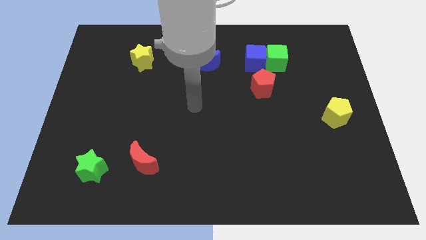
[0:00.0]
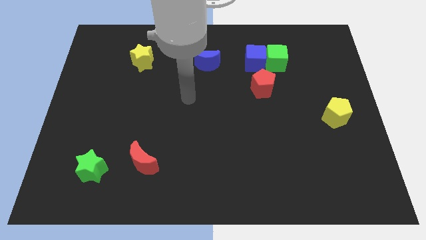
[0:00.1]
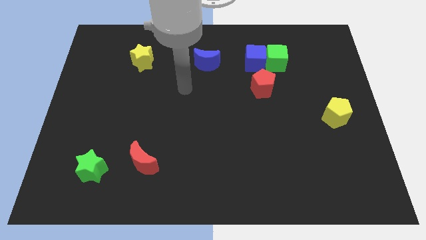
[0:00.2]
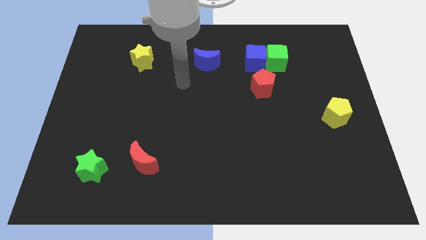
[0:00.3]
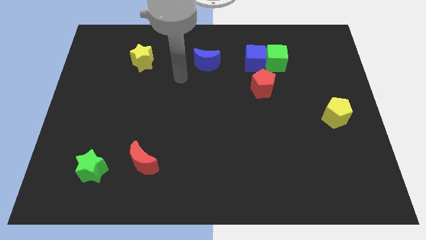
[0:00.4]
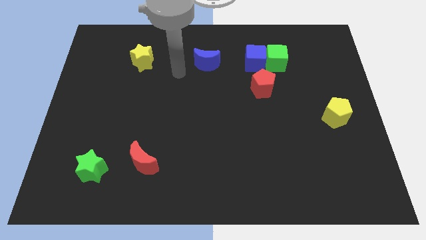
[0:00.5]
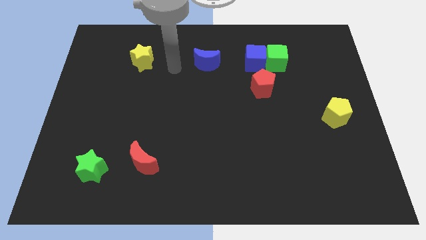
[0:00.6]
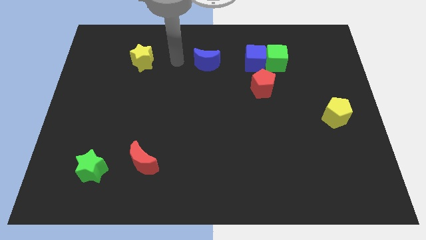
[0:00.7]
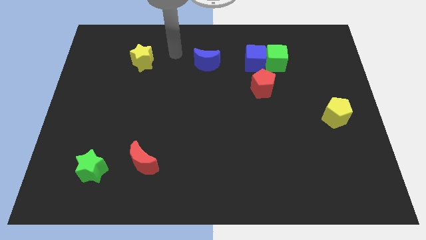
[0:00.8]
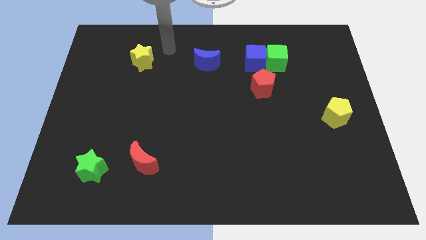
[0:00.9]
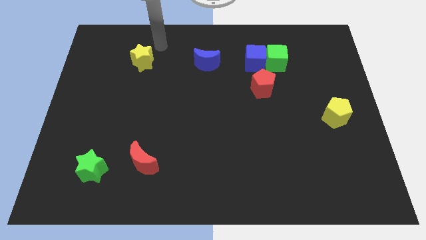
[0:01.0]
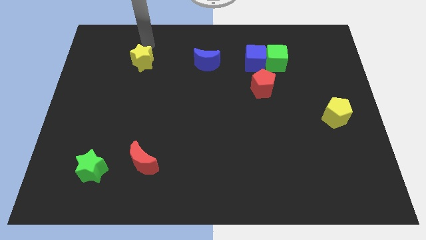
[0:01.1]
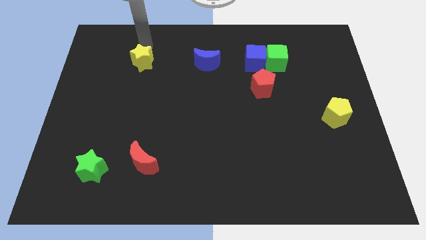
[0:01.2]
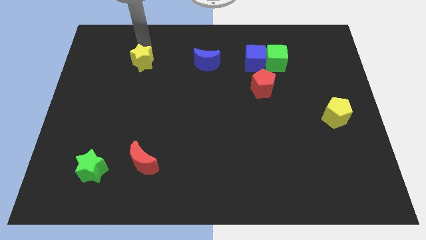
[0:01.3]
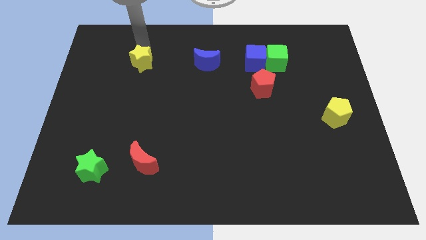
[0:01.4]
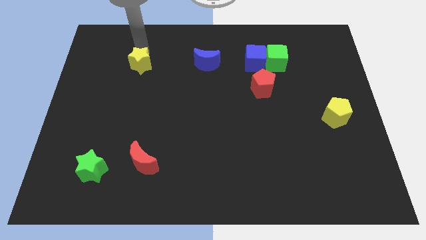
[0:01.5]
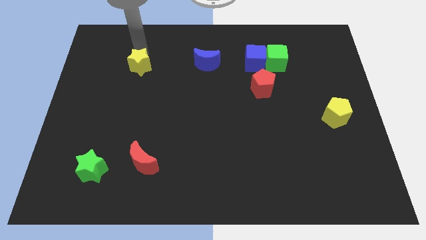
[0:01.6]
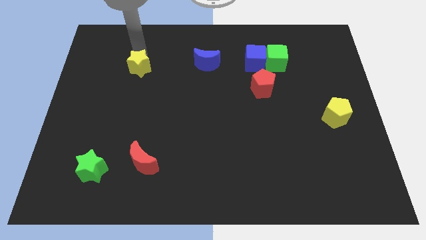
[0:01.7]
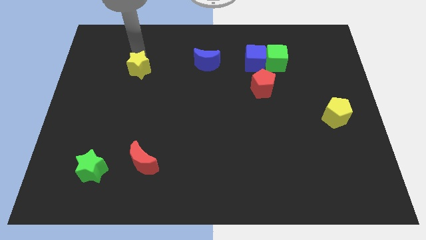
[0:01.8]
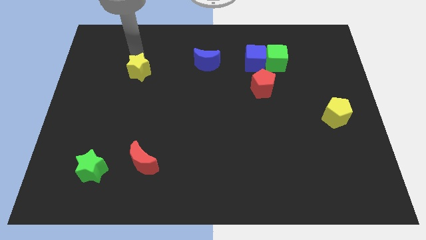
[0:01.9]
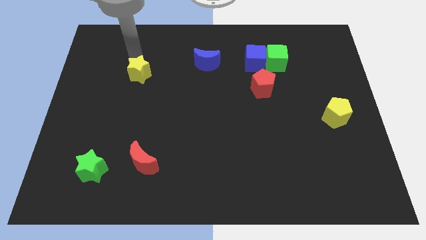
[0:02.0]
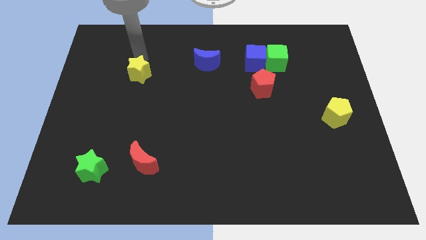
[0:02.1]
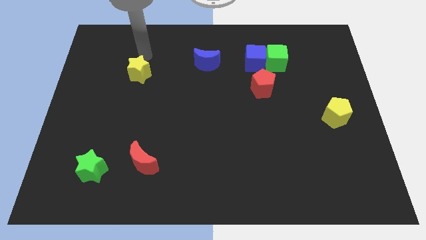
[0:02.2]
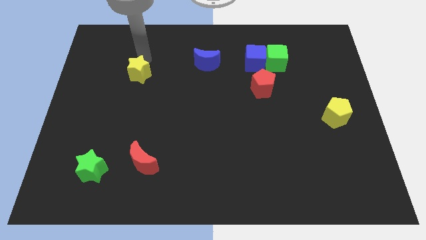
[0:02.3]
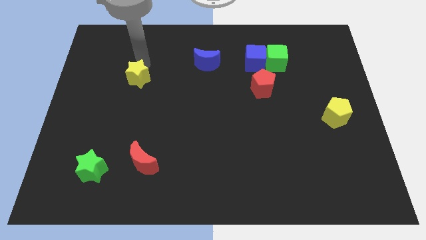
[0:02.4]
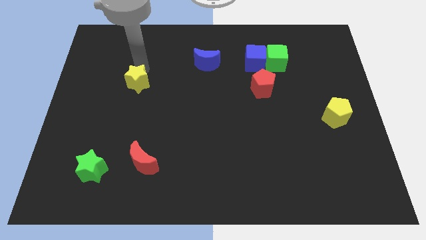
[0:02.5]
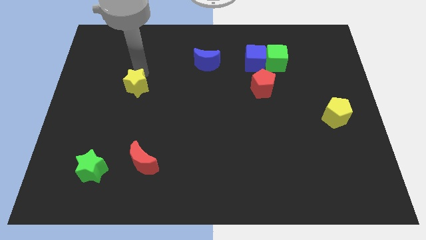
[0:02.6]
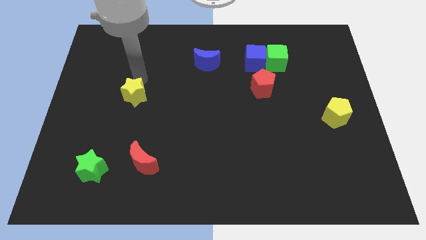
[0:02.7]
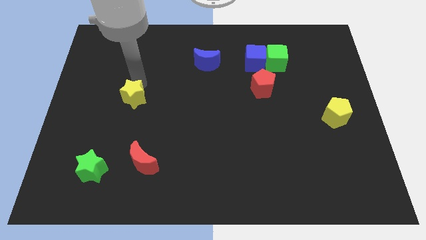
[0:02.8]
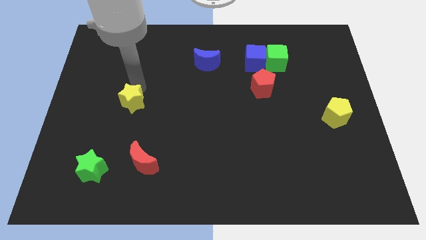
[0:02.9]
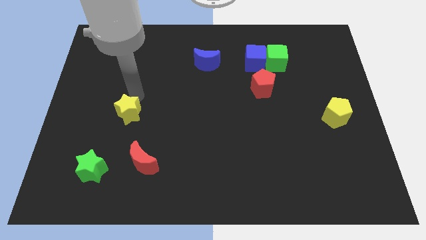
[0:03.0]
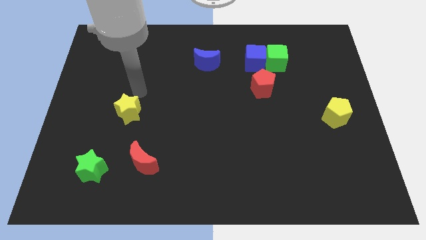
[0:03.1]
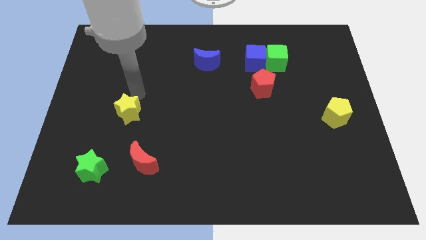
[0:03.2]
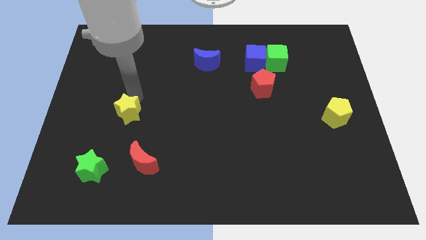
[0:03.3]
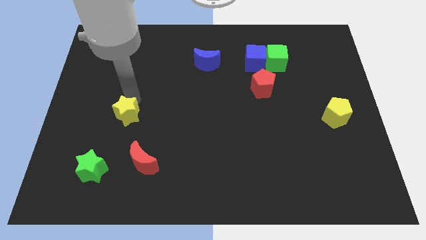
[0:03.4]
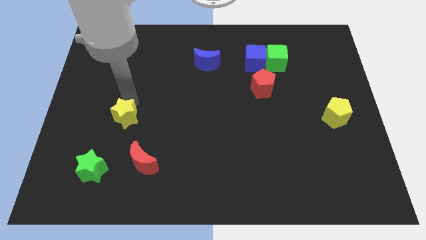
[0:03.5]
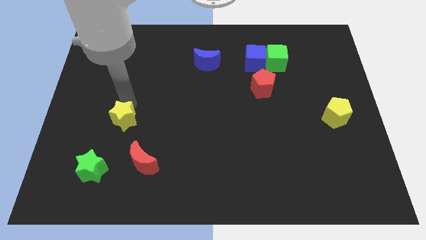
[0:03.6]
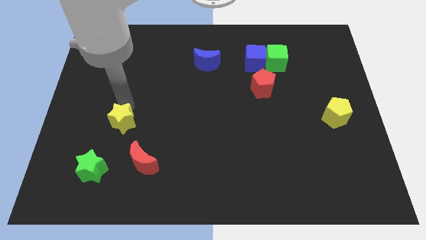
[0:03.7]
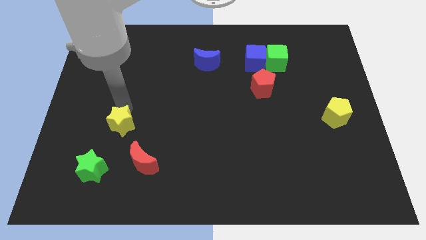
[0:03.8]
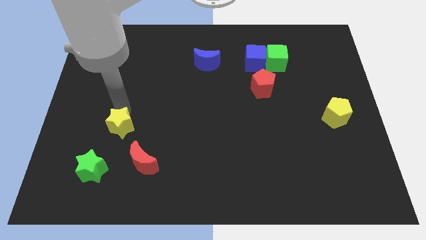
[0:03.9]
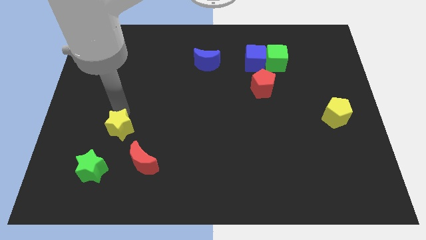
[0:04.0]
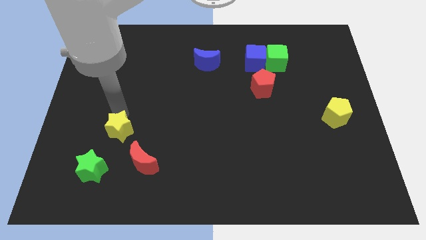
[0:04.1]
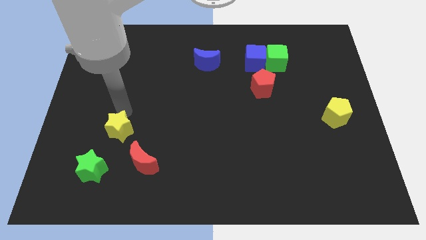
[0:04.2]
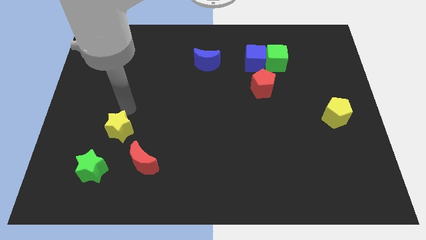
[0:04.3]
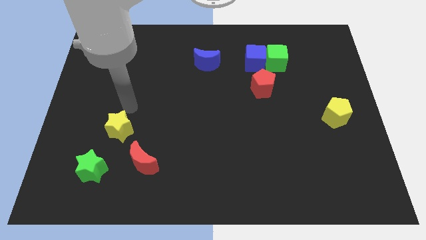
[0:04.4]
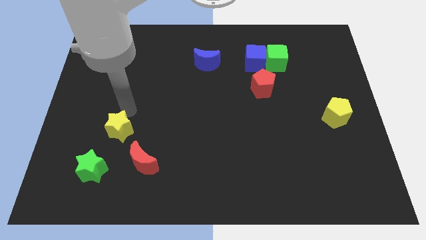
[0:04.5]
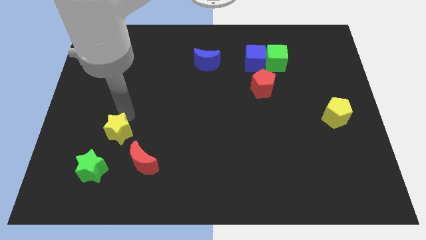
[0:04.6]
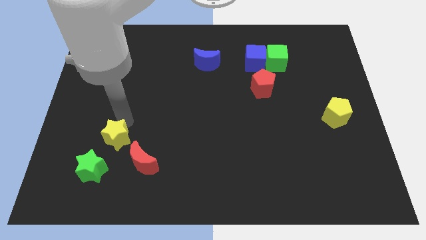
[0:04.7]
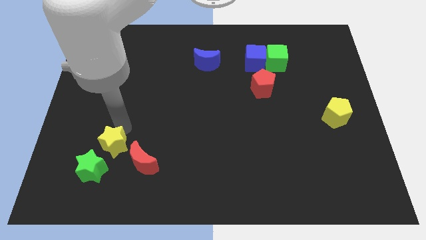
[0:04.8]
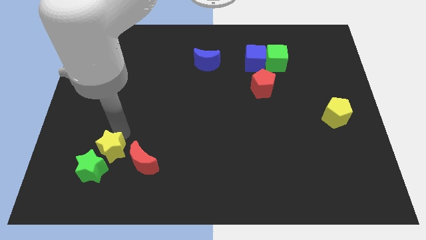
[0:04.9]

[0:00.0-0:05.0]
push the yellow star to the green star

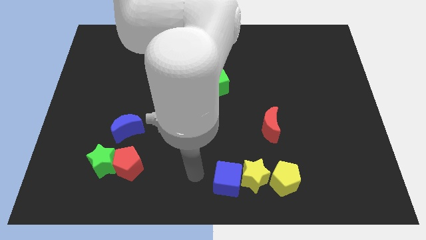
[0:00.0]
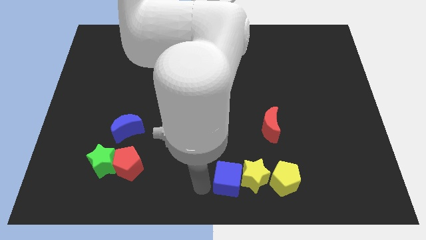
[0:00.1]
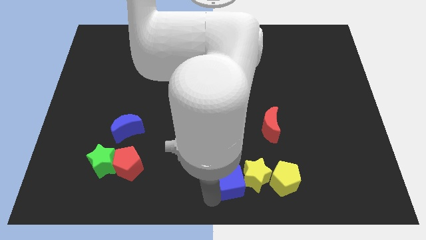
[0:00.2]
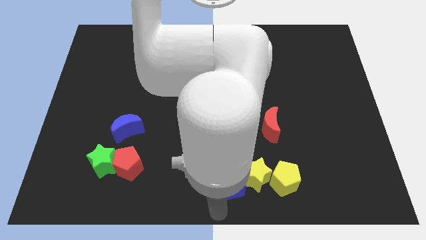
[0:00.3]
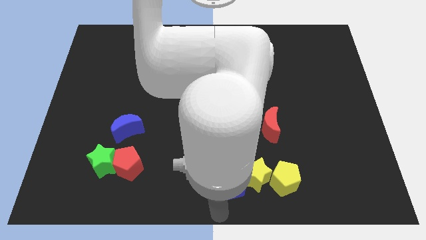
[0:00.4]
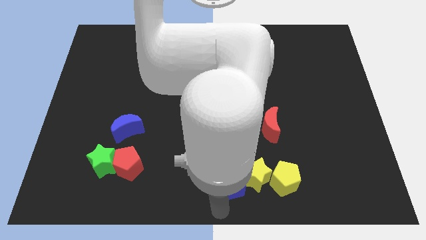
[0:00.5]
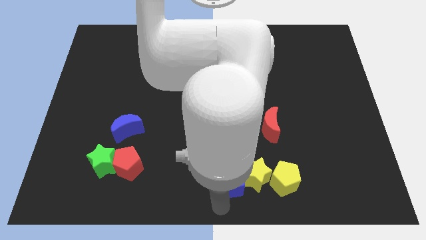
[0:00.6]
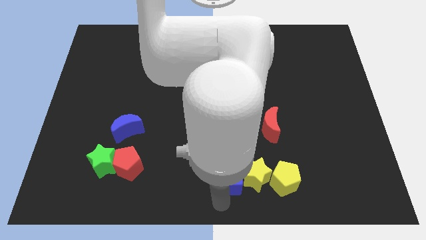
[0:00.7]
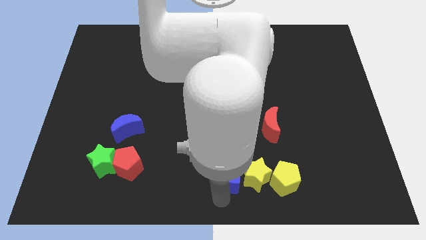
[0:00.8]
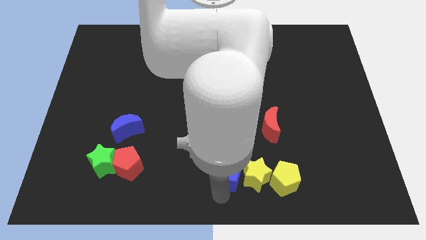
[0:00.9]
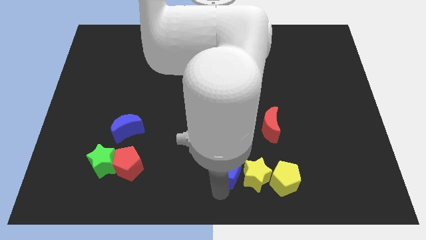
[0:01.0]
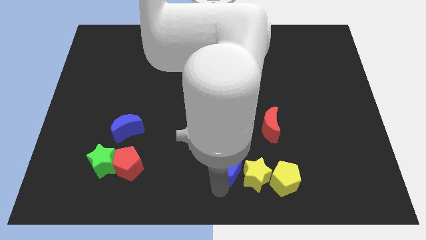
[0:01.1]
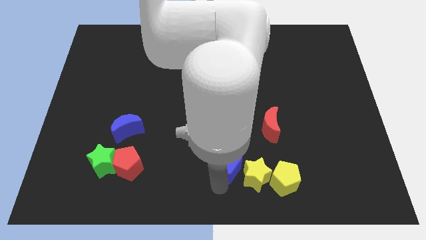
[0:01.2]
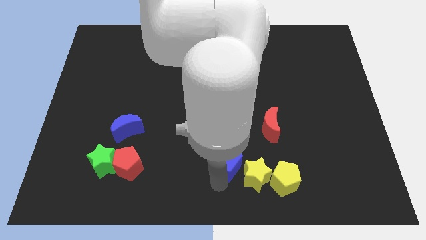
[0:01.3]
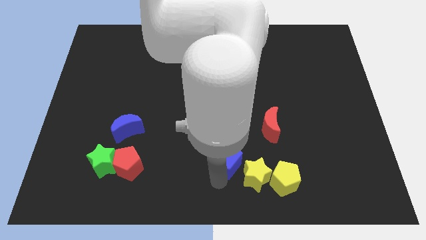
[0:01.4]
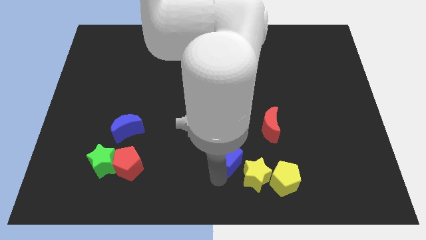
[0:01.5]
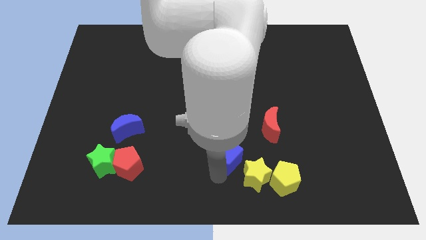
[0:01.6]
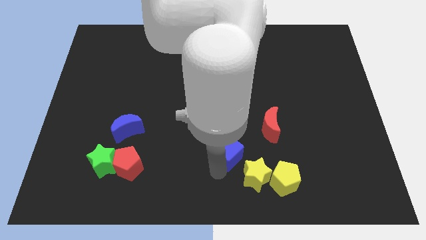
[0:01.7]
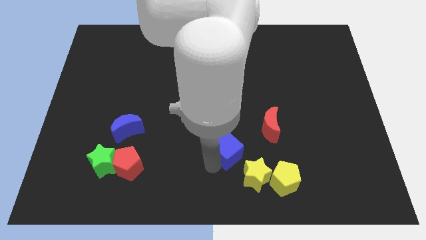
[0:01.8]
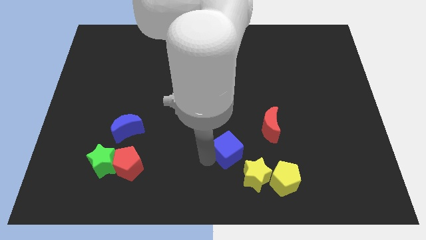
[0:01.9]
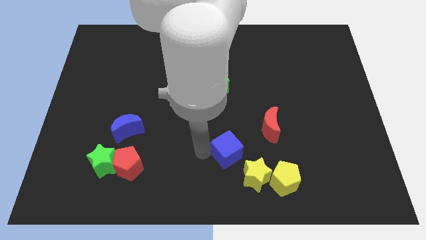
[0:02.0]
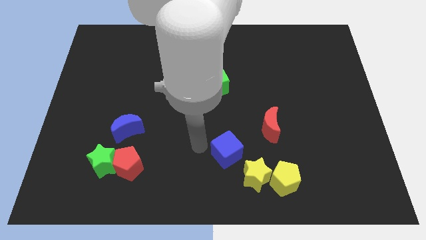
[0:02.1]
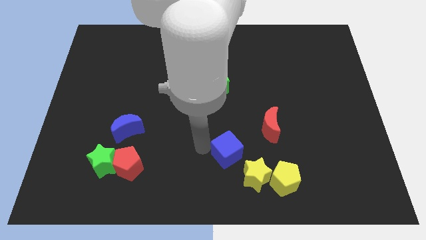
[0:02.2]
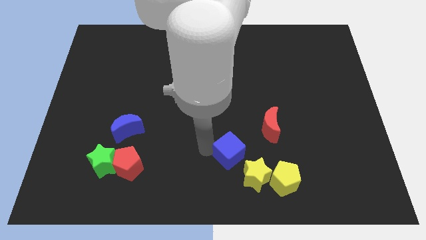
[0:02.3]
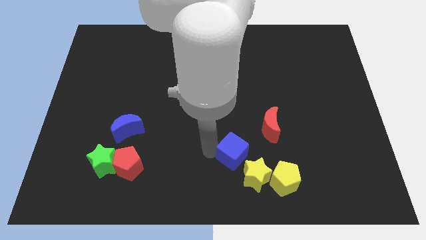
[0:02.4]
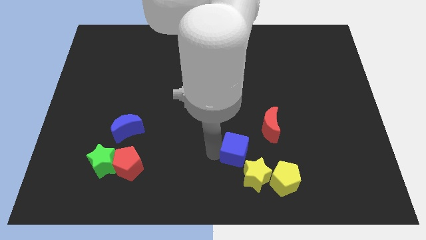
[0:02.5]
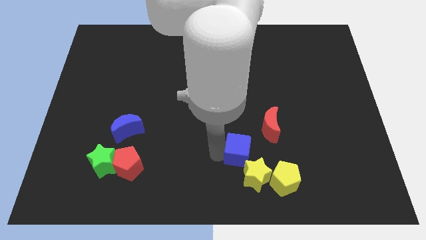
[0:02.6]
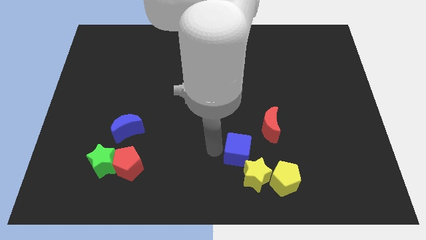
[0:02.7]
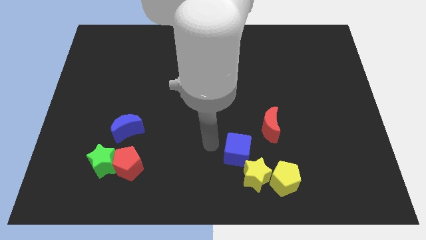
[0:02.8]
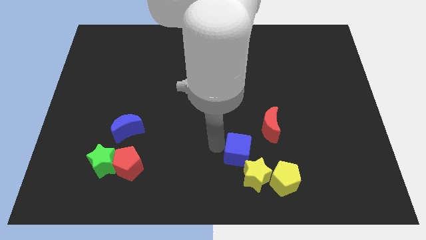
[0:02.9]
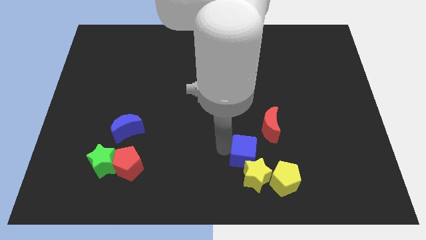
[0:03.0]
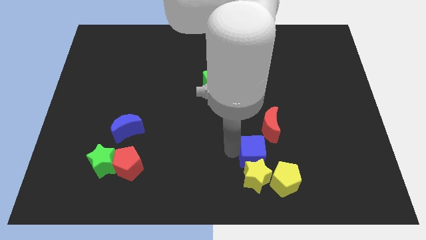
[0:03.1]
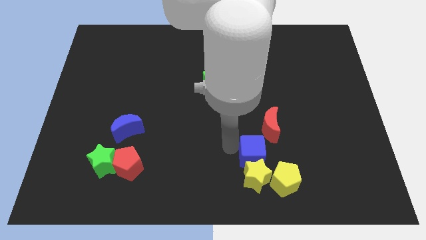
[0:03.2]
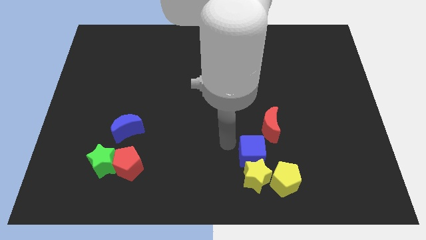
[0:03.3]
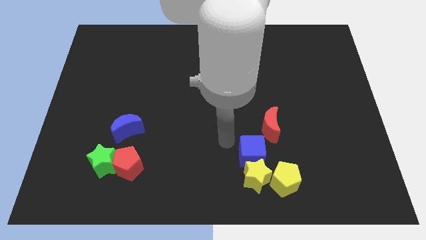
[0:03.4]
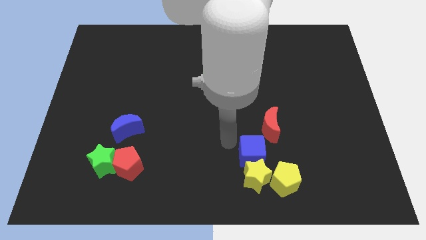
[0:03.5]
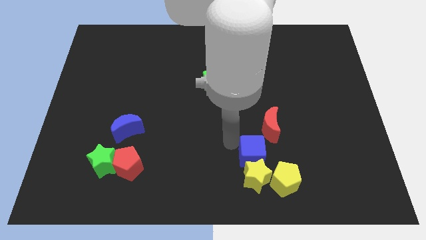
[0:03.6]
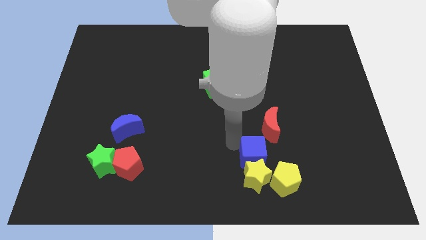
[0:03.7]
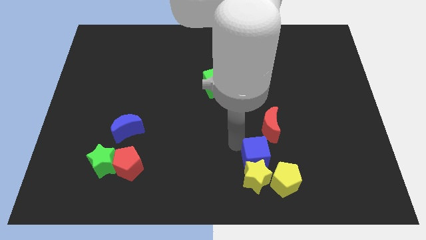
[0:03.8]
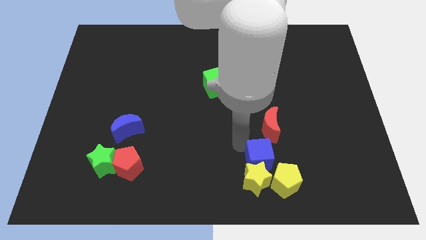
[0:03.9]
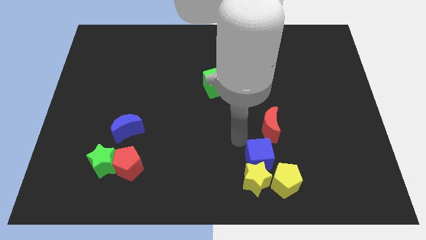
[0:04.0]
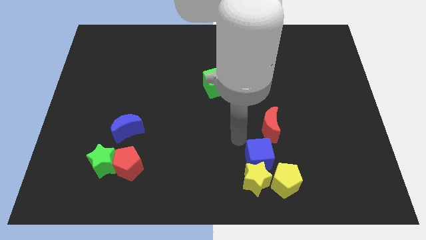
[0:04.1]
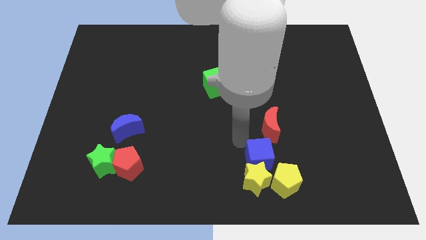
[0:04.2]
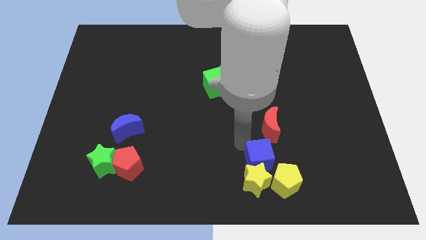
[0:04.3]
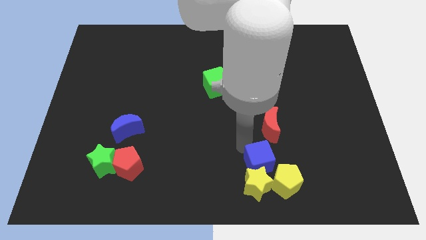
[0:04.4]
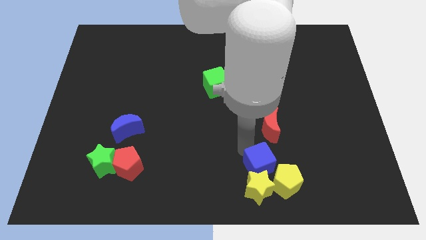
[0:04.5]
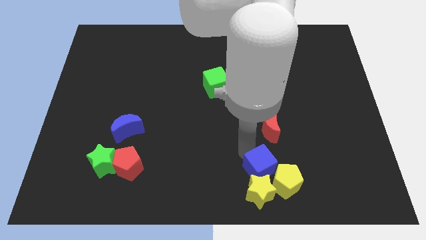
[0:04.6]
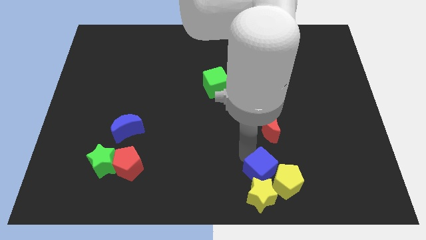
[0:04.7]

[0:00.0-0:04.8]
push the blue cube close to the yellow pentagon
